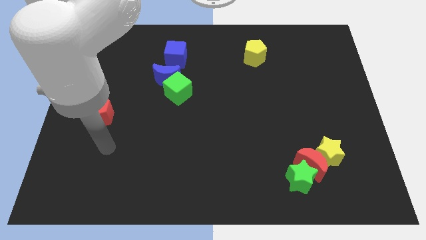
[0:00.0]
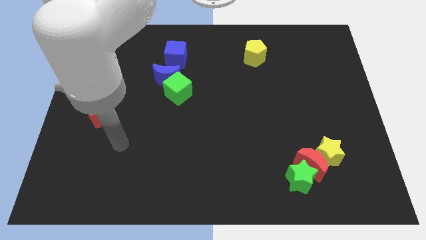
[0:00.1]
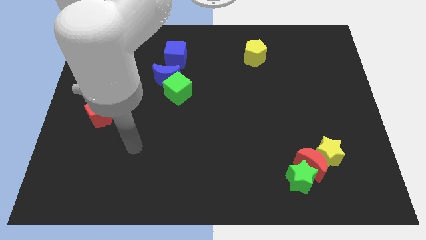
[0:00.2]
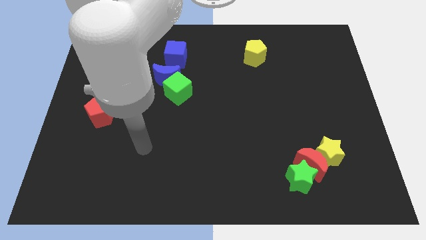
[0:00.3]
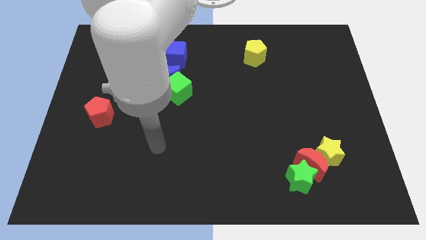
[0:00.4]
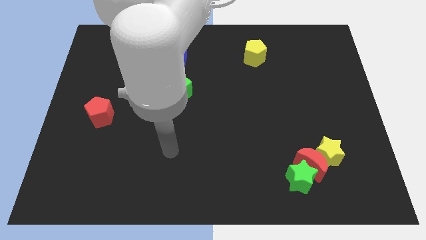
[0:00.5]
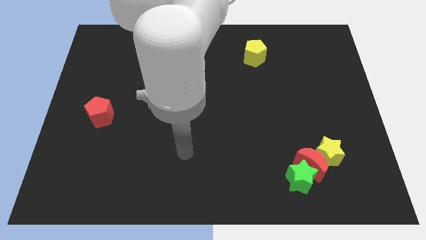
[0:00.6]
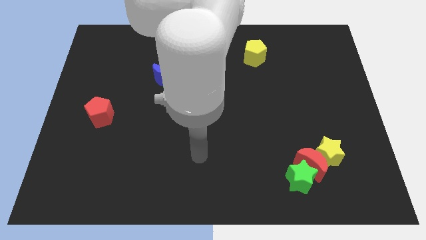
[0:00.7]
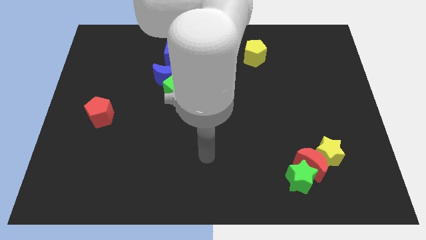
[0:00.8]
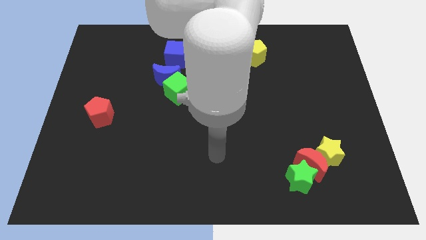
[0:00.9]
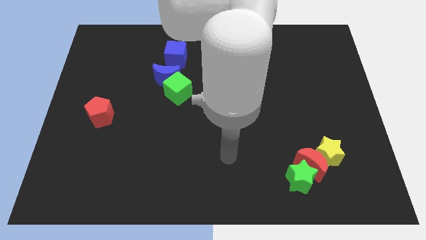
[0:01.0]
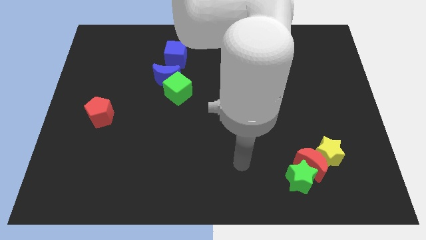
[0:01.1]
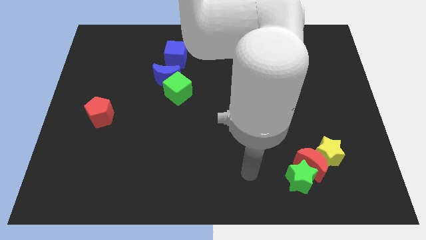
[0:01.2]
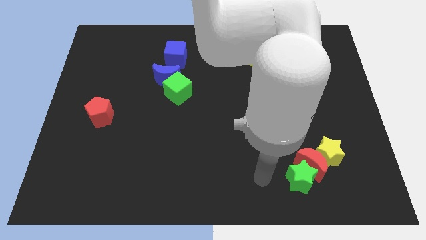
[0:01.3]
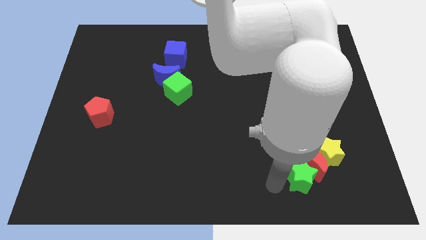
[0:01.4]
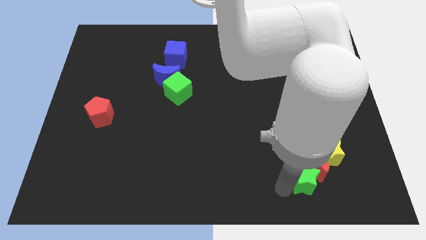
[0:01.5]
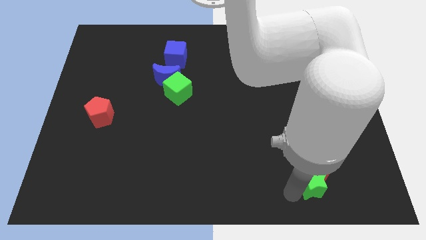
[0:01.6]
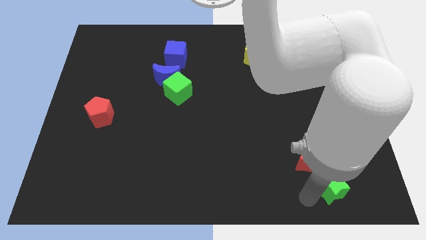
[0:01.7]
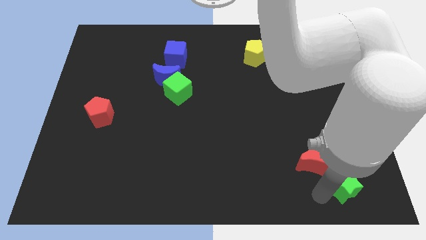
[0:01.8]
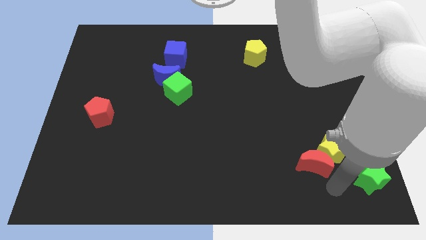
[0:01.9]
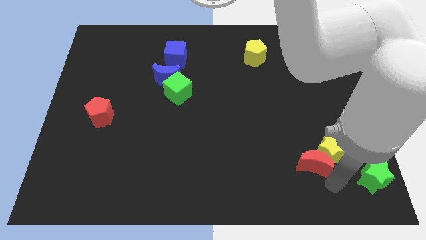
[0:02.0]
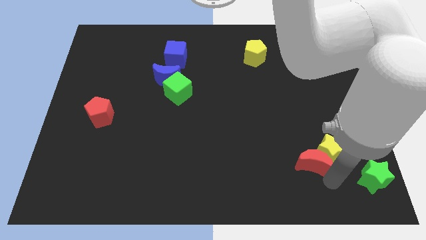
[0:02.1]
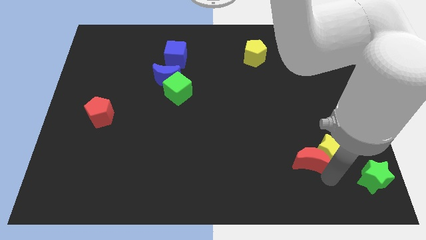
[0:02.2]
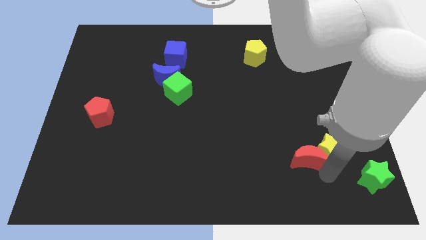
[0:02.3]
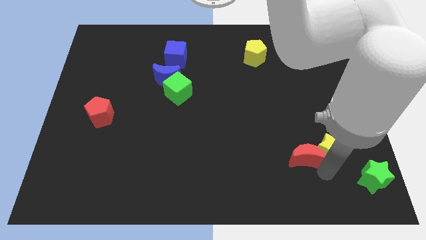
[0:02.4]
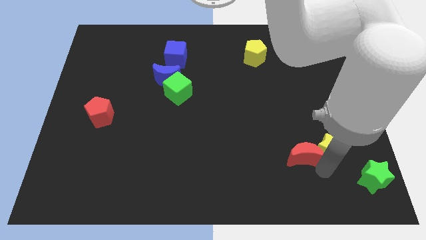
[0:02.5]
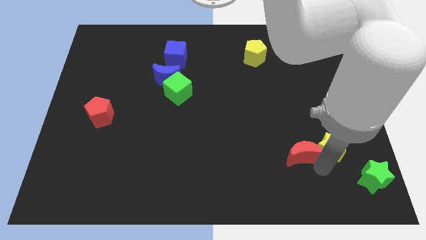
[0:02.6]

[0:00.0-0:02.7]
separate the red moon from the green star and yellow star

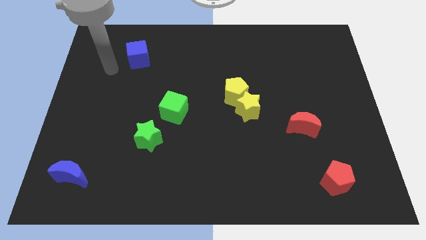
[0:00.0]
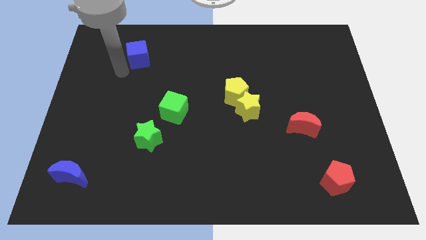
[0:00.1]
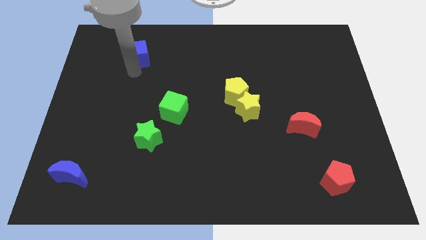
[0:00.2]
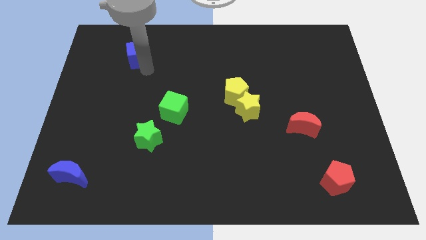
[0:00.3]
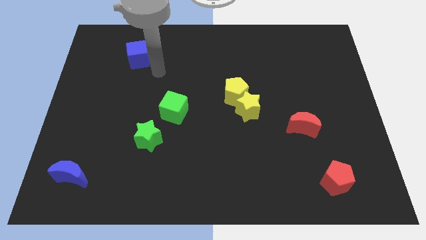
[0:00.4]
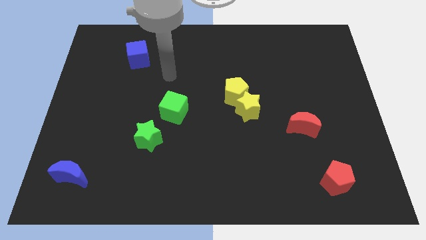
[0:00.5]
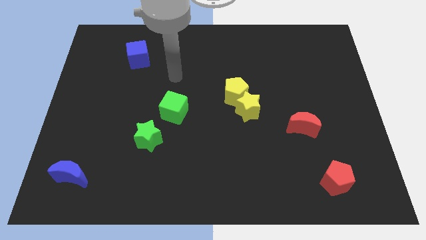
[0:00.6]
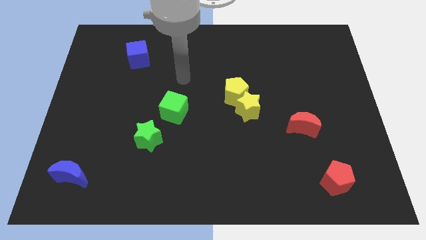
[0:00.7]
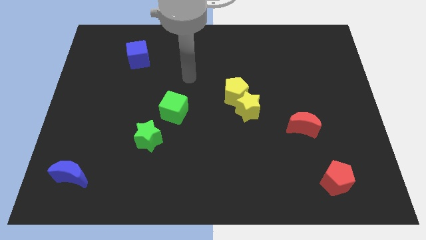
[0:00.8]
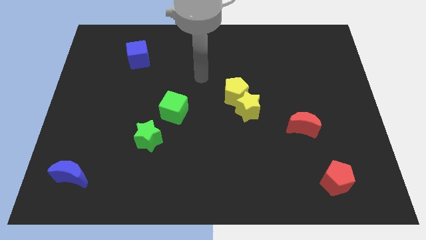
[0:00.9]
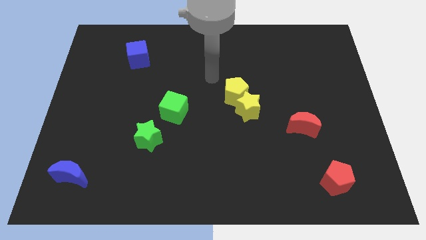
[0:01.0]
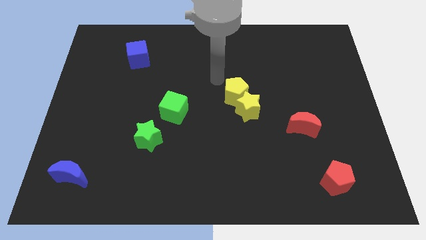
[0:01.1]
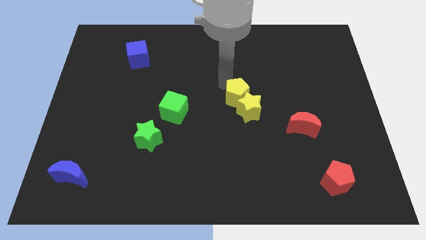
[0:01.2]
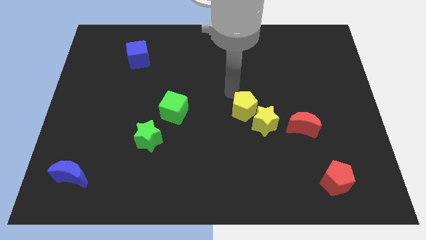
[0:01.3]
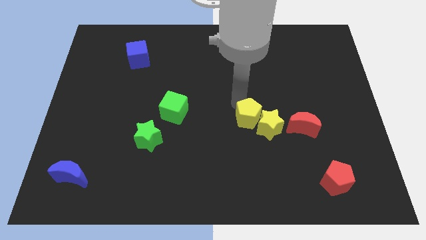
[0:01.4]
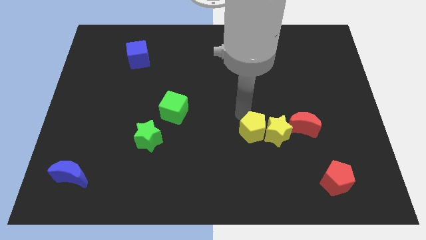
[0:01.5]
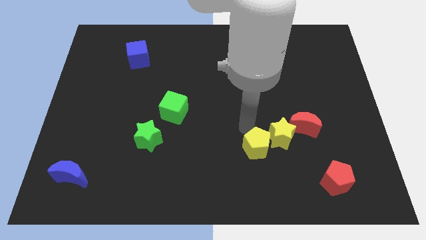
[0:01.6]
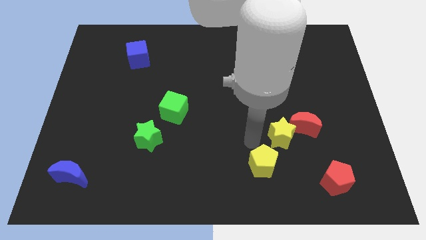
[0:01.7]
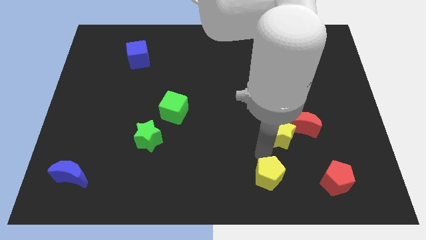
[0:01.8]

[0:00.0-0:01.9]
separate the yellow star from the yellow pentagon

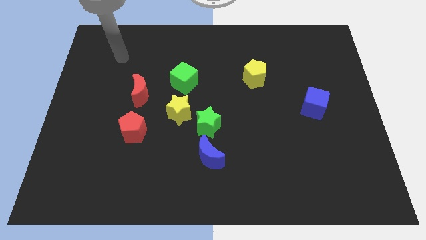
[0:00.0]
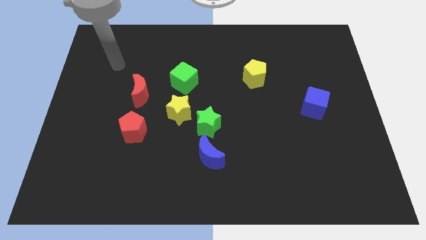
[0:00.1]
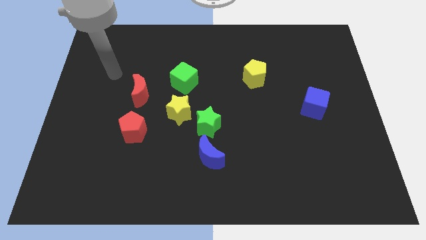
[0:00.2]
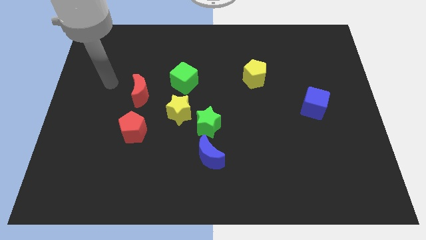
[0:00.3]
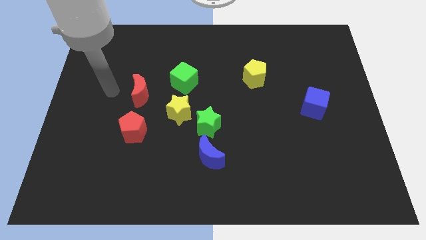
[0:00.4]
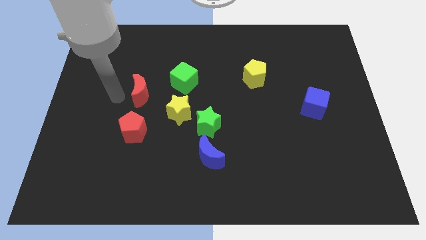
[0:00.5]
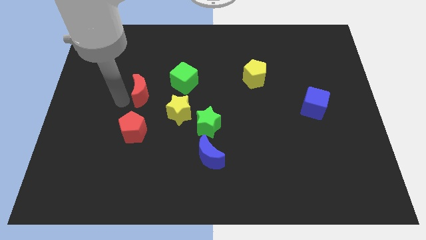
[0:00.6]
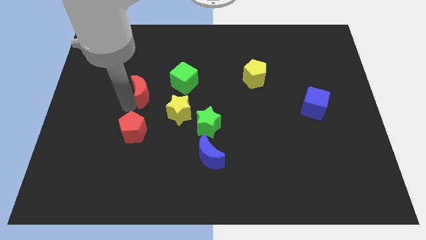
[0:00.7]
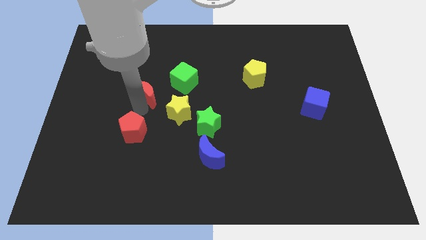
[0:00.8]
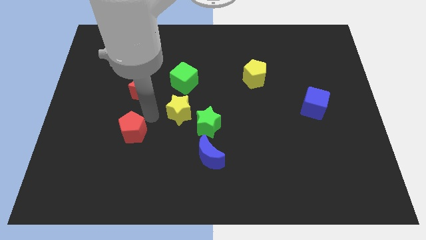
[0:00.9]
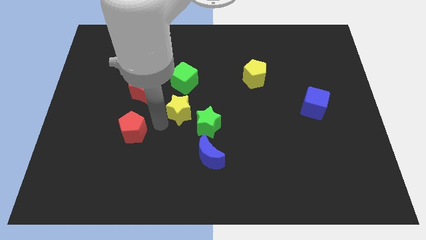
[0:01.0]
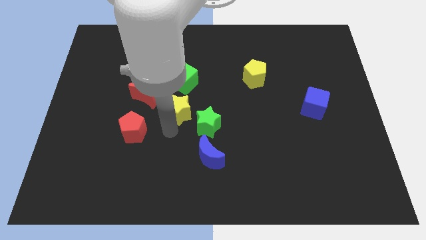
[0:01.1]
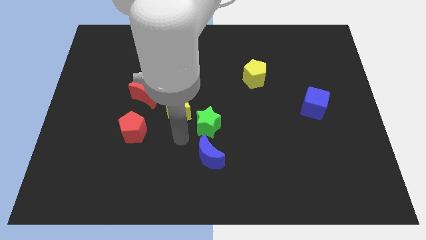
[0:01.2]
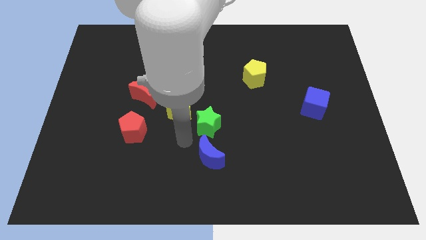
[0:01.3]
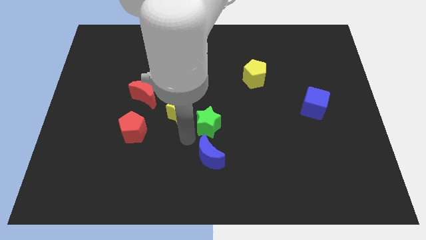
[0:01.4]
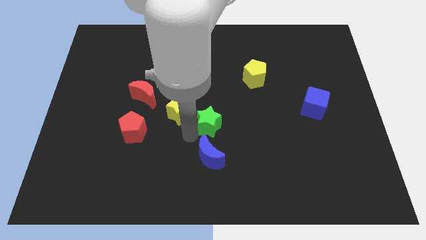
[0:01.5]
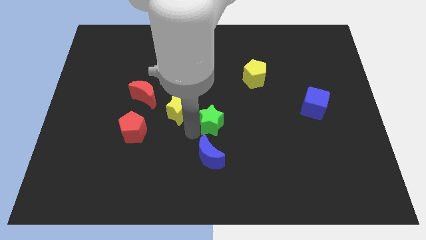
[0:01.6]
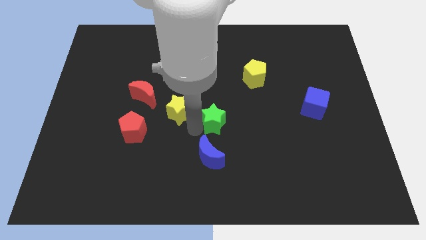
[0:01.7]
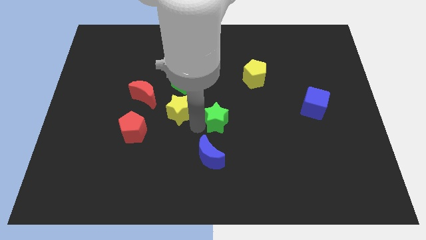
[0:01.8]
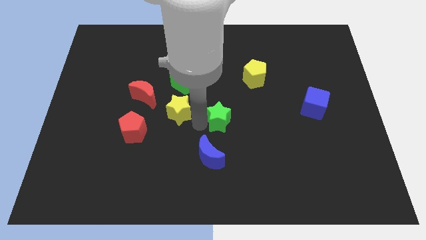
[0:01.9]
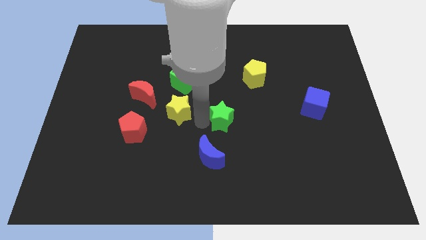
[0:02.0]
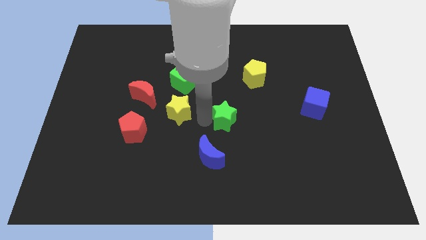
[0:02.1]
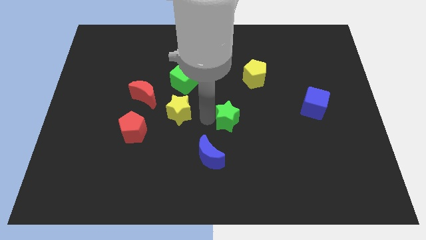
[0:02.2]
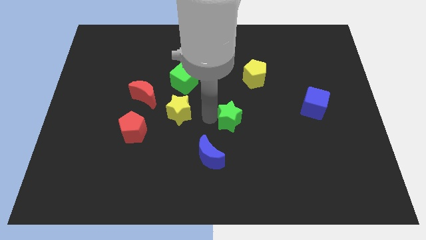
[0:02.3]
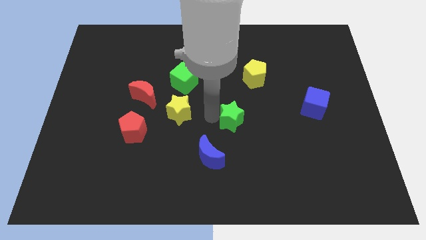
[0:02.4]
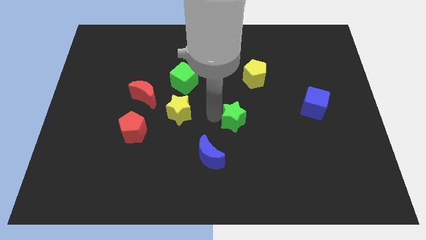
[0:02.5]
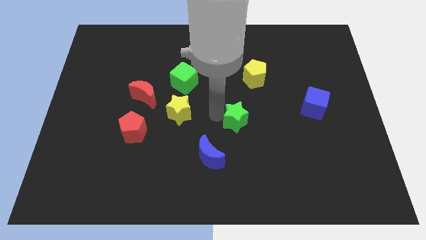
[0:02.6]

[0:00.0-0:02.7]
separate the green star from the yellow star and blue moon

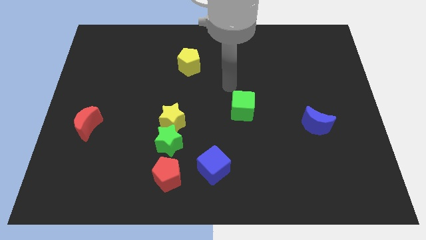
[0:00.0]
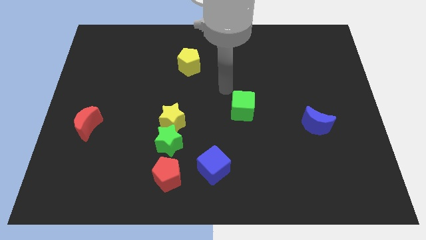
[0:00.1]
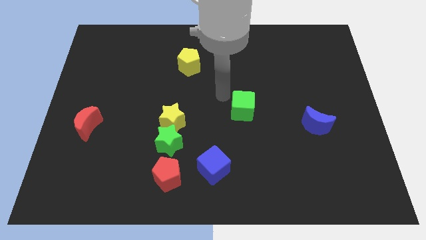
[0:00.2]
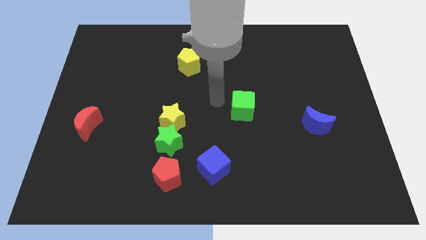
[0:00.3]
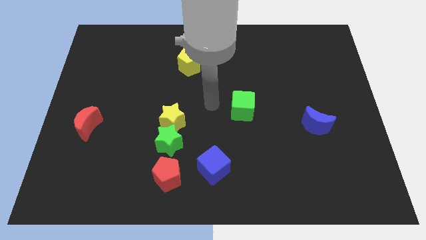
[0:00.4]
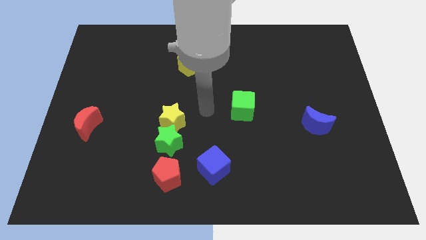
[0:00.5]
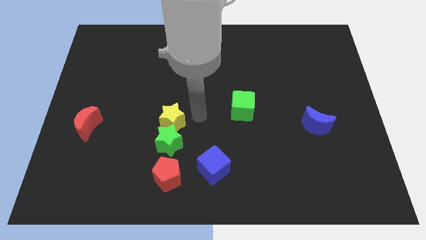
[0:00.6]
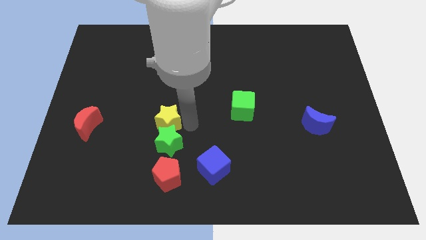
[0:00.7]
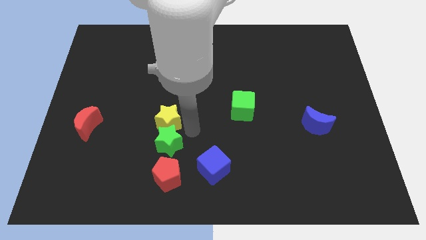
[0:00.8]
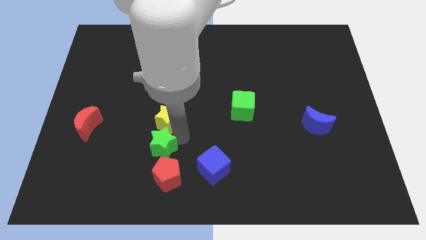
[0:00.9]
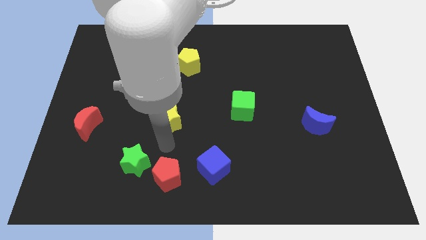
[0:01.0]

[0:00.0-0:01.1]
move the yellow star away from the green star

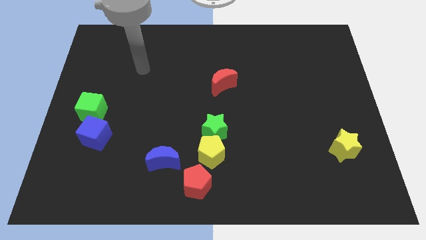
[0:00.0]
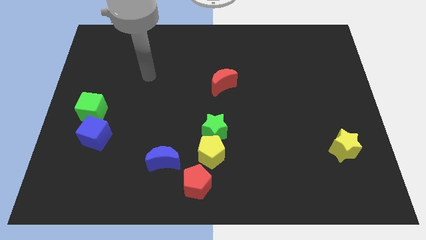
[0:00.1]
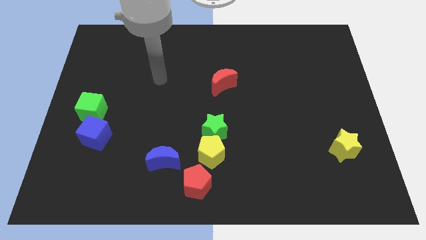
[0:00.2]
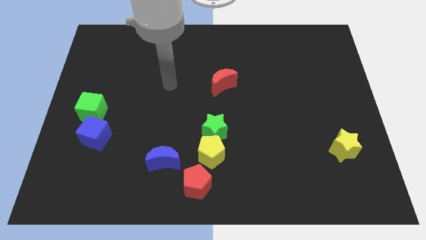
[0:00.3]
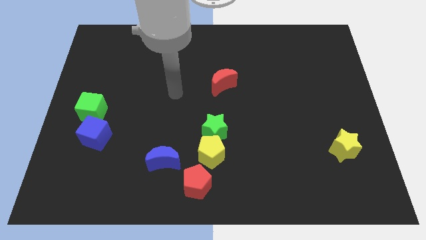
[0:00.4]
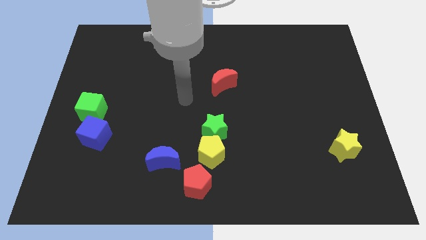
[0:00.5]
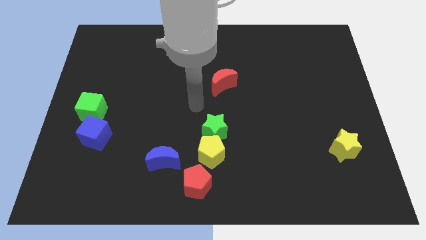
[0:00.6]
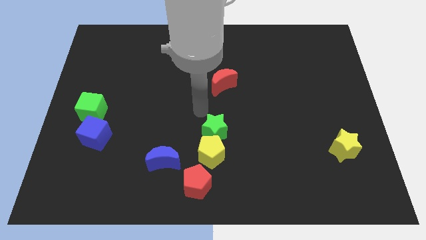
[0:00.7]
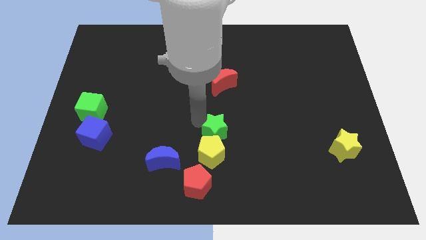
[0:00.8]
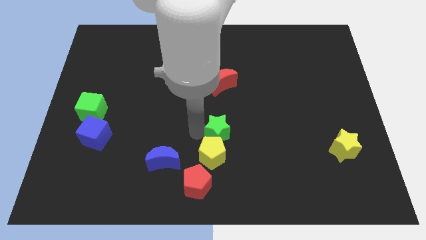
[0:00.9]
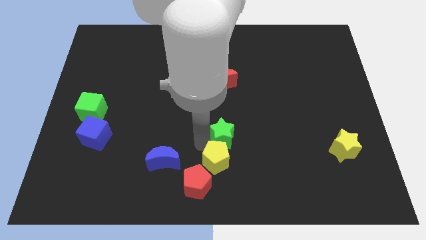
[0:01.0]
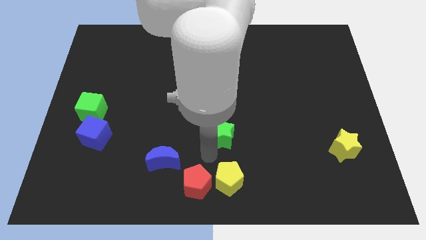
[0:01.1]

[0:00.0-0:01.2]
move the green star away from the yellow pentagon
